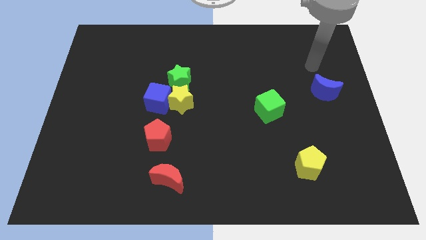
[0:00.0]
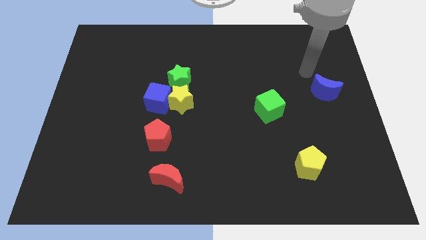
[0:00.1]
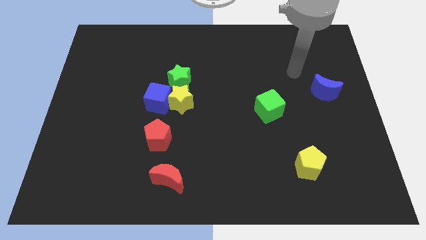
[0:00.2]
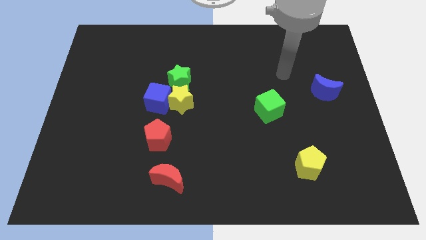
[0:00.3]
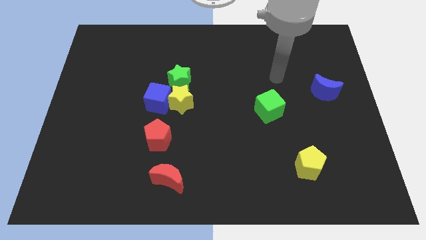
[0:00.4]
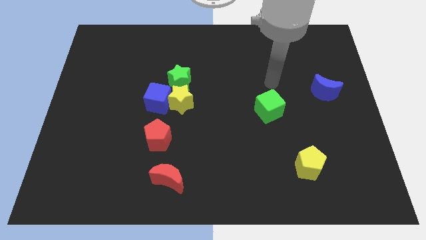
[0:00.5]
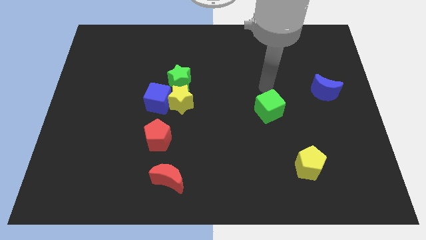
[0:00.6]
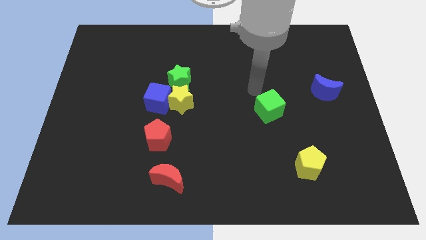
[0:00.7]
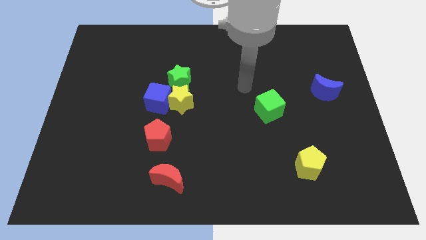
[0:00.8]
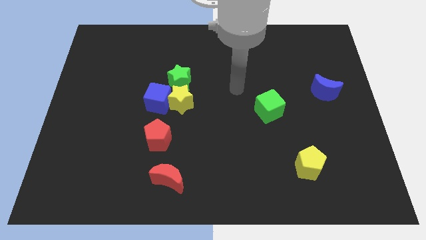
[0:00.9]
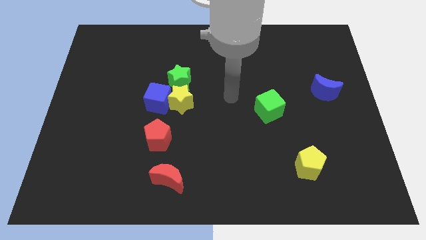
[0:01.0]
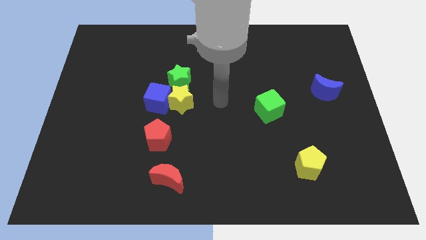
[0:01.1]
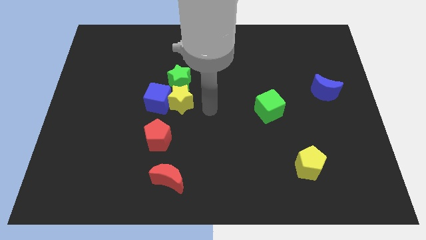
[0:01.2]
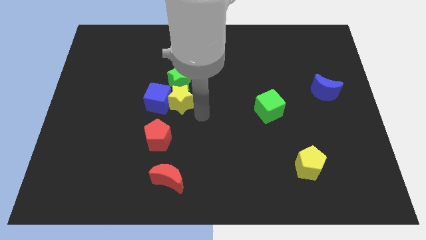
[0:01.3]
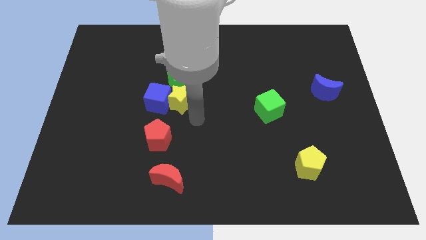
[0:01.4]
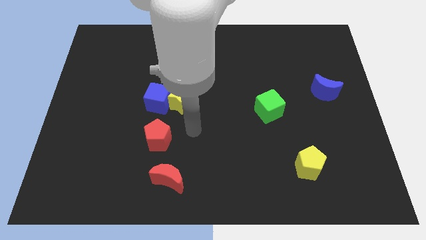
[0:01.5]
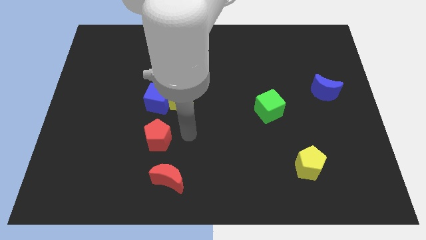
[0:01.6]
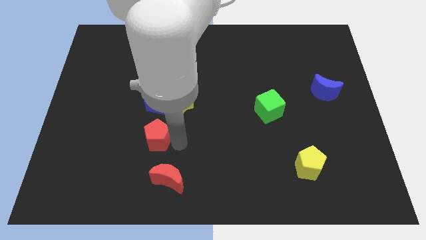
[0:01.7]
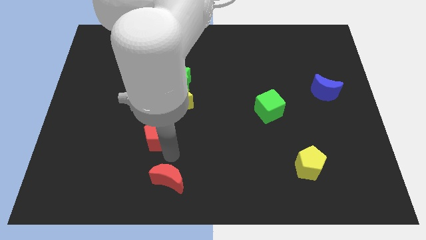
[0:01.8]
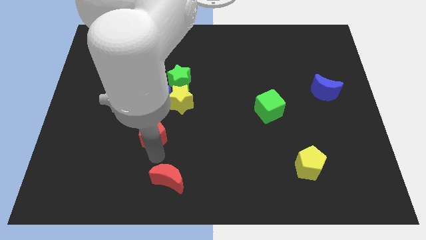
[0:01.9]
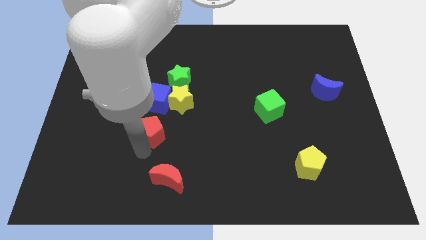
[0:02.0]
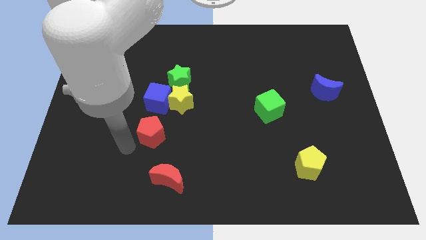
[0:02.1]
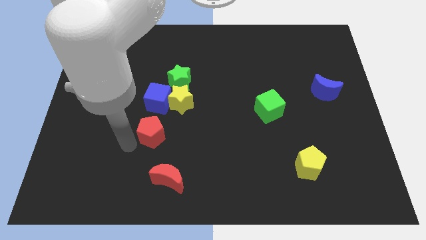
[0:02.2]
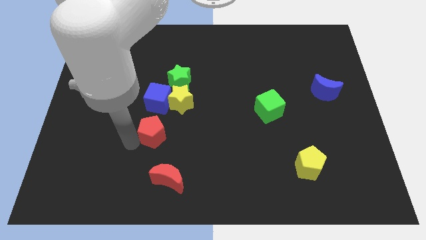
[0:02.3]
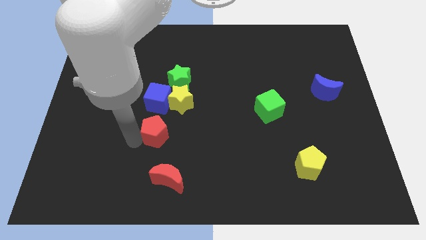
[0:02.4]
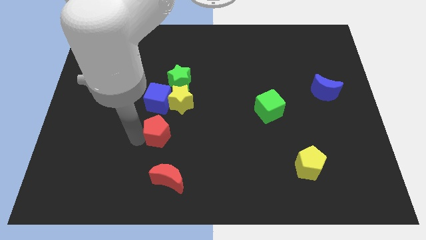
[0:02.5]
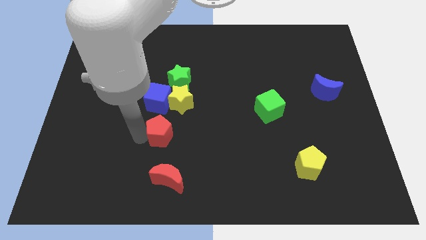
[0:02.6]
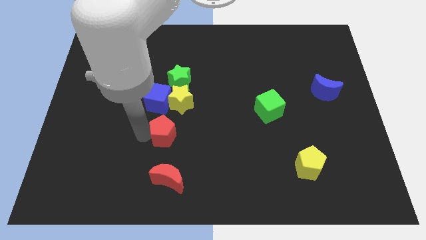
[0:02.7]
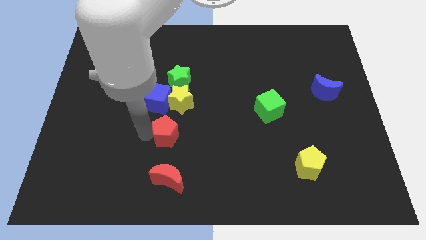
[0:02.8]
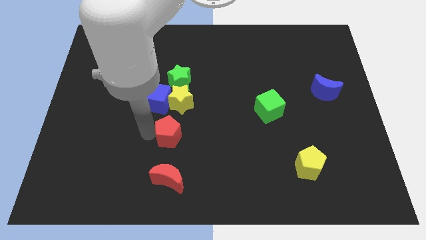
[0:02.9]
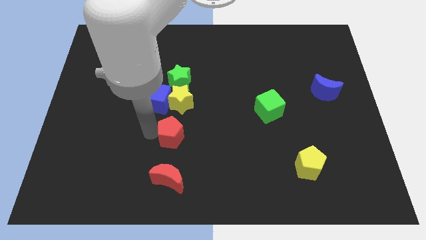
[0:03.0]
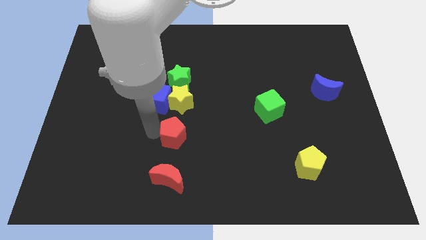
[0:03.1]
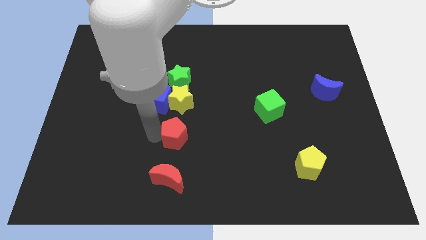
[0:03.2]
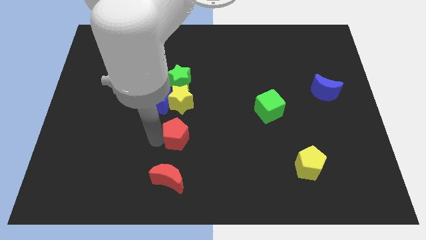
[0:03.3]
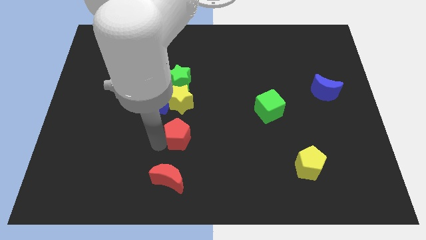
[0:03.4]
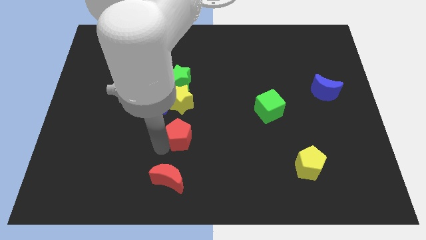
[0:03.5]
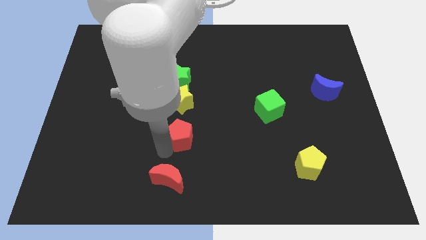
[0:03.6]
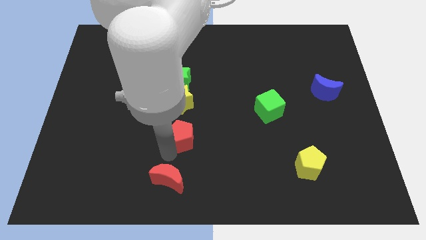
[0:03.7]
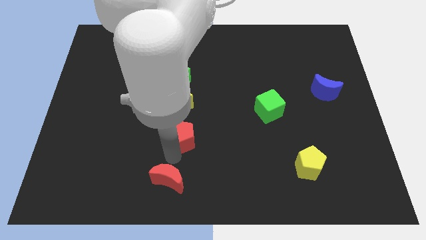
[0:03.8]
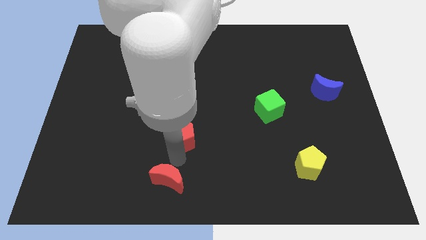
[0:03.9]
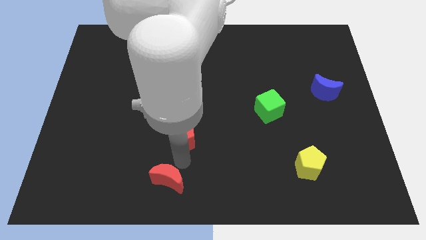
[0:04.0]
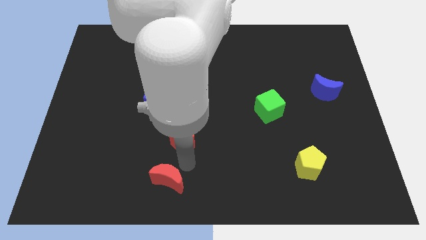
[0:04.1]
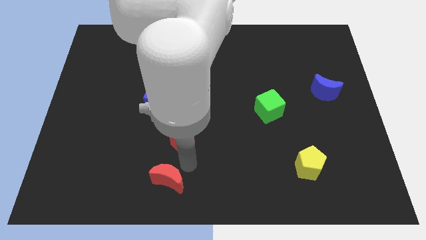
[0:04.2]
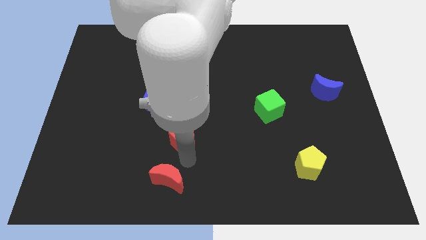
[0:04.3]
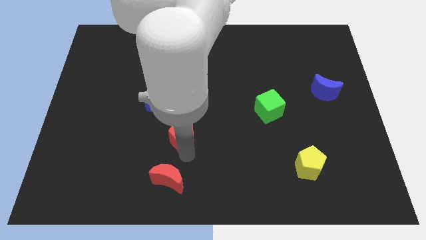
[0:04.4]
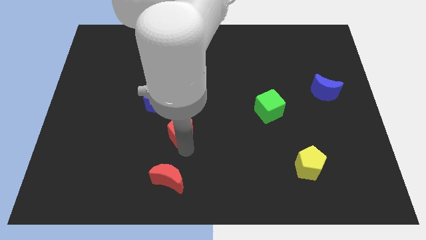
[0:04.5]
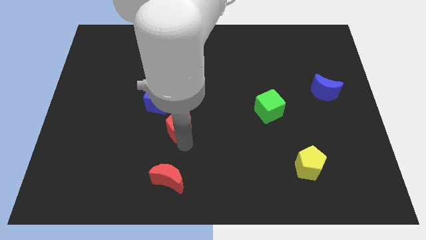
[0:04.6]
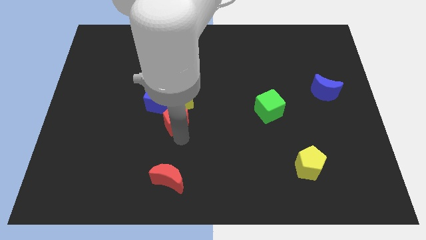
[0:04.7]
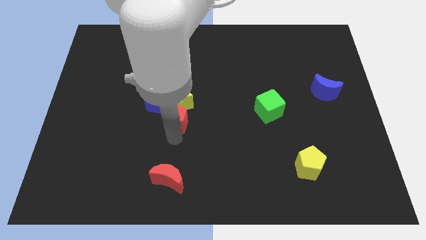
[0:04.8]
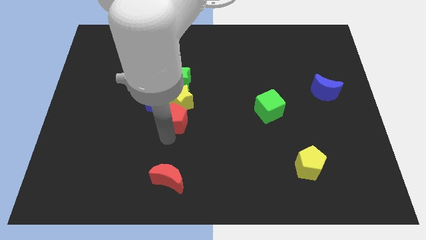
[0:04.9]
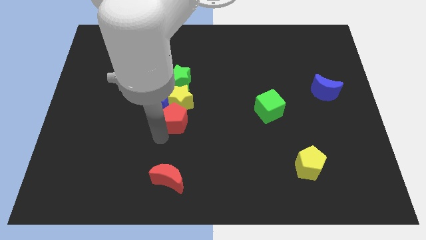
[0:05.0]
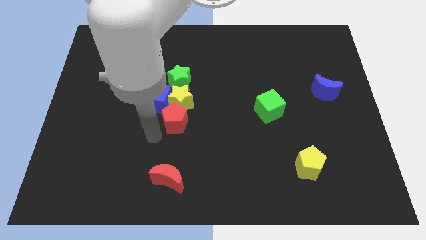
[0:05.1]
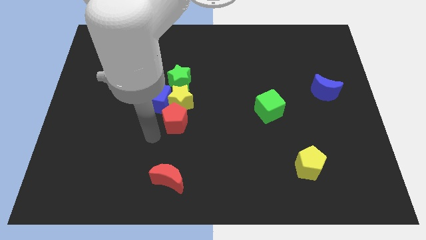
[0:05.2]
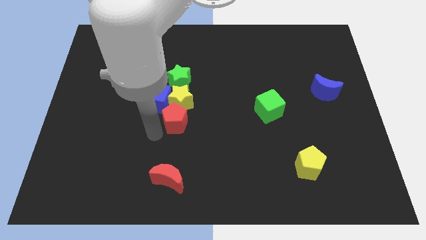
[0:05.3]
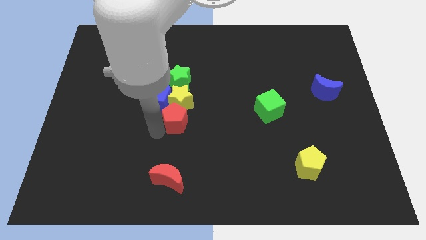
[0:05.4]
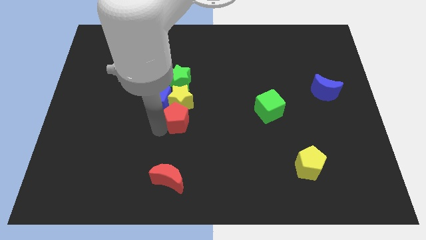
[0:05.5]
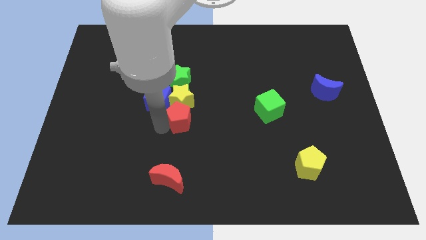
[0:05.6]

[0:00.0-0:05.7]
slightly push the red pentagon diagonally up and right

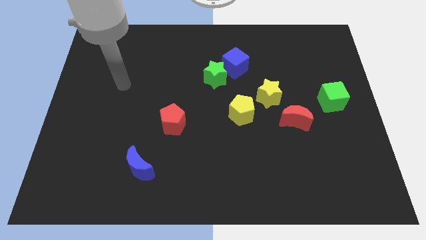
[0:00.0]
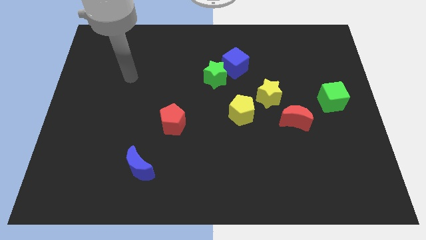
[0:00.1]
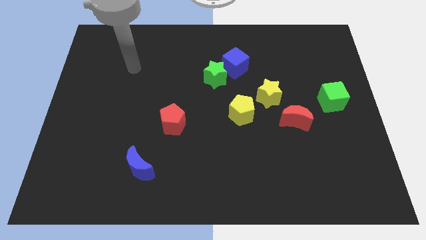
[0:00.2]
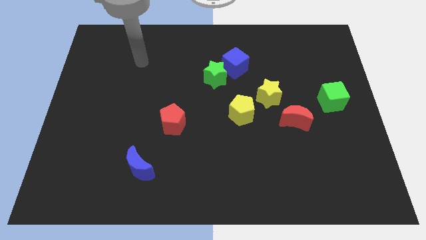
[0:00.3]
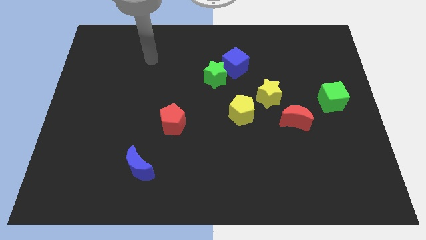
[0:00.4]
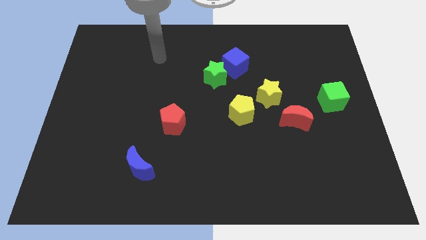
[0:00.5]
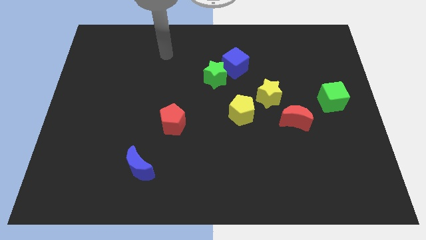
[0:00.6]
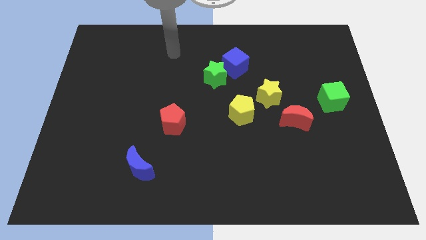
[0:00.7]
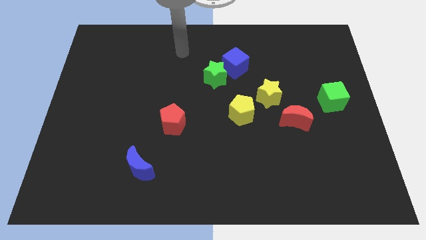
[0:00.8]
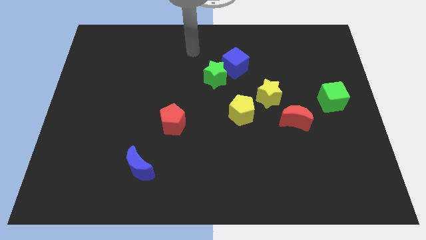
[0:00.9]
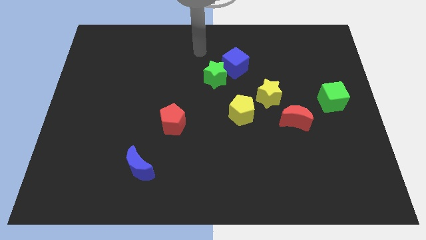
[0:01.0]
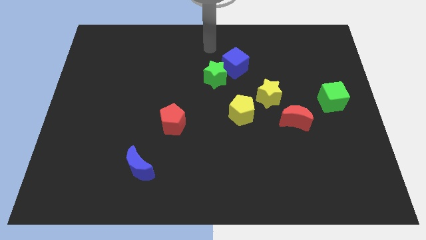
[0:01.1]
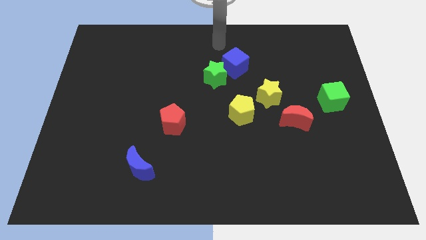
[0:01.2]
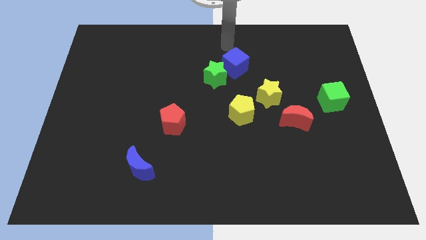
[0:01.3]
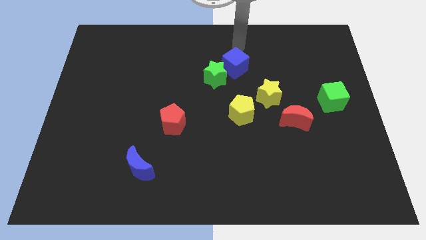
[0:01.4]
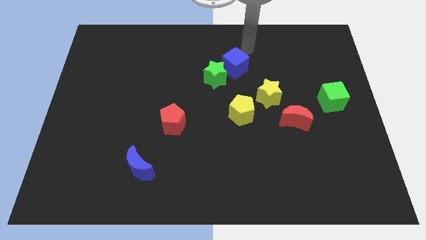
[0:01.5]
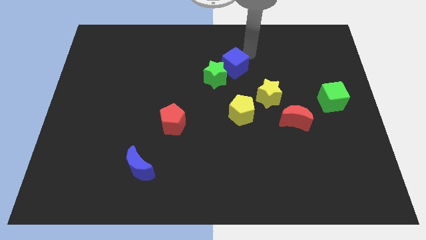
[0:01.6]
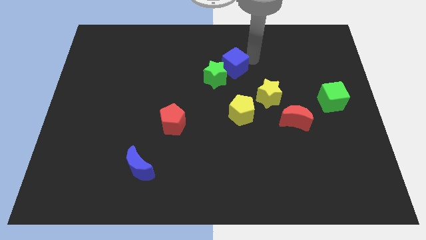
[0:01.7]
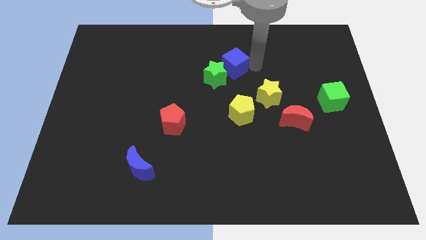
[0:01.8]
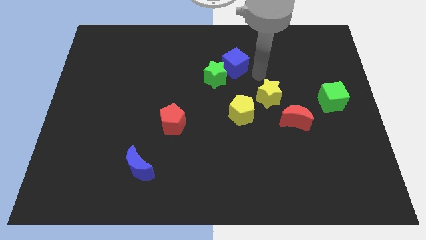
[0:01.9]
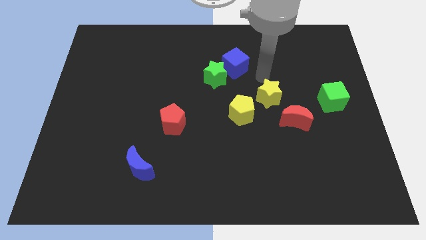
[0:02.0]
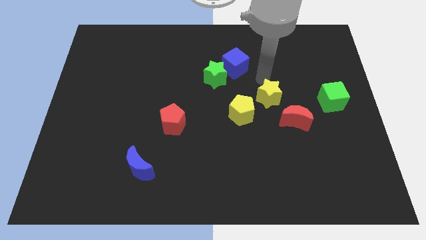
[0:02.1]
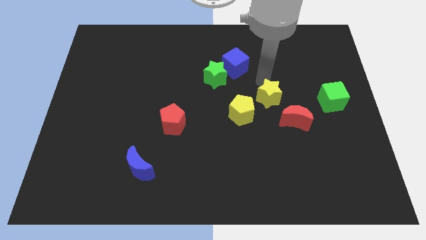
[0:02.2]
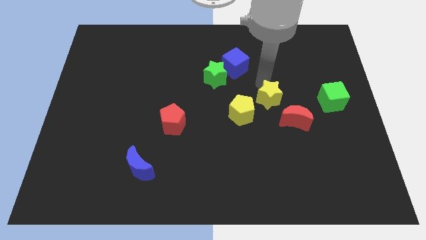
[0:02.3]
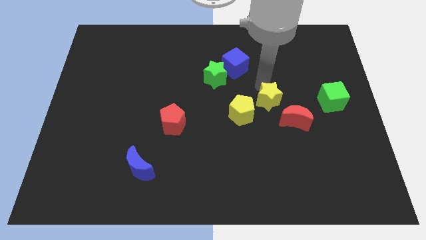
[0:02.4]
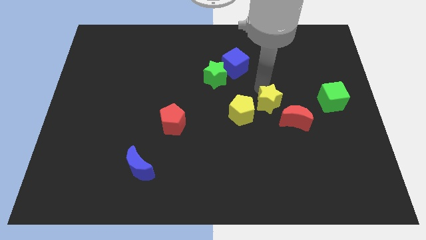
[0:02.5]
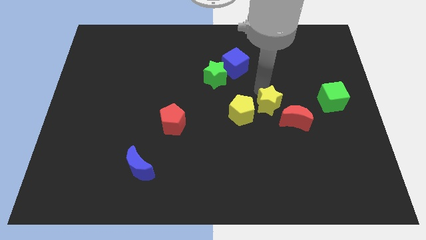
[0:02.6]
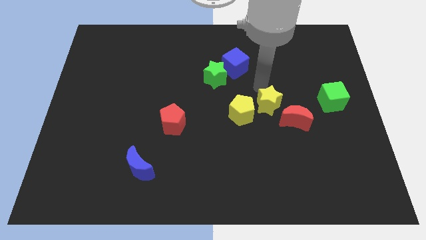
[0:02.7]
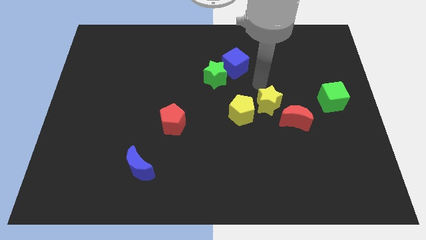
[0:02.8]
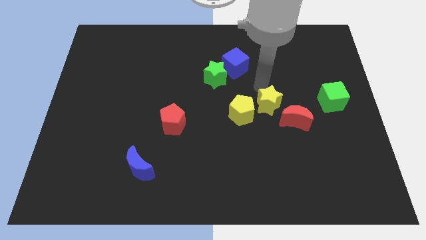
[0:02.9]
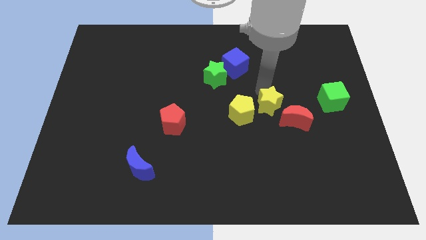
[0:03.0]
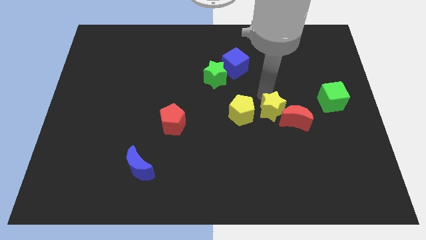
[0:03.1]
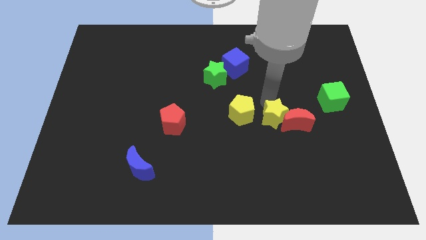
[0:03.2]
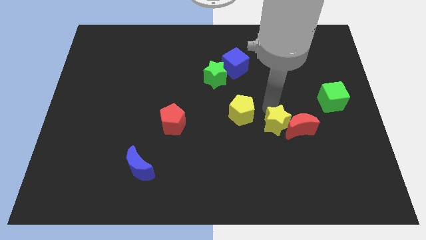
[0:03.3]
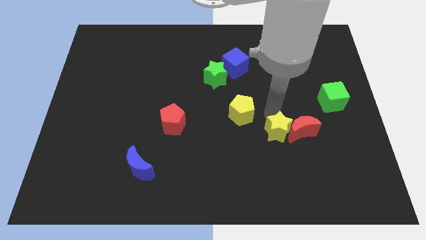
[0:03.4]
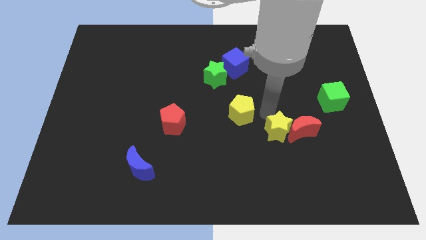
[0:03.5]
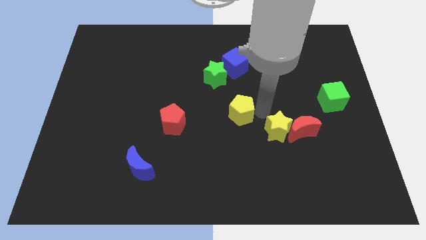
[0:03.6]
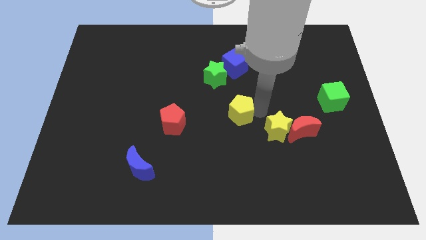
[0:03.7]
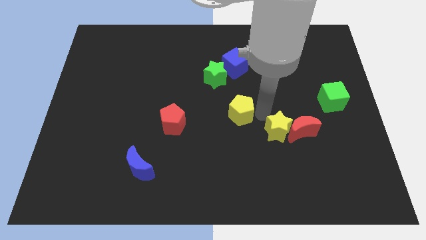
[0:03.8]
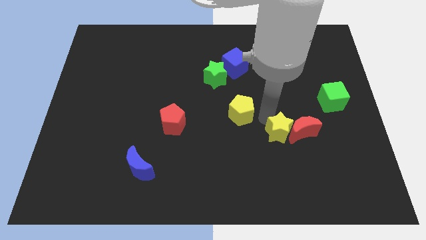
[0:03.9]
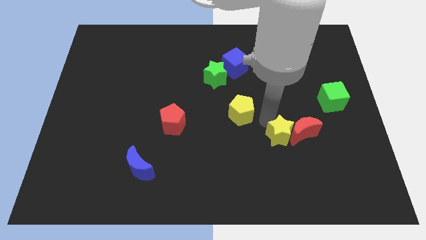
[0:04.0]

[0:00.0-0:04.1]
slightly move the yellow star down and to the right
